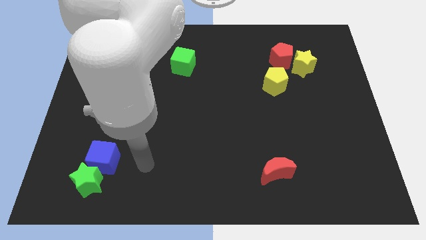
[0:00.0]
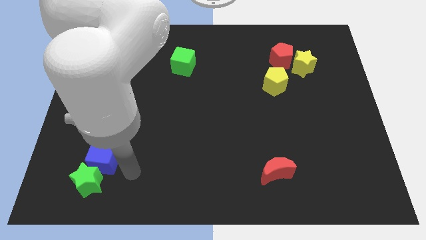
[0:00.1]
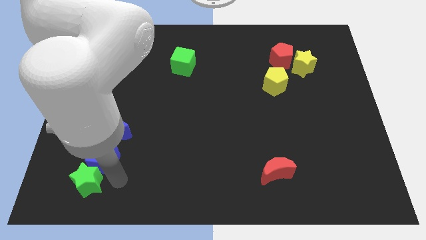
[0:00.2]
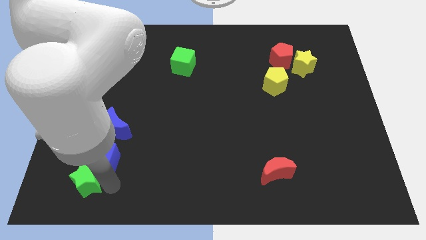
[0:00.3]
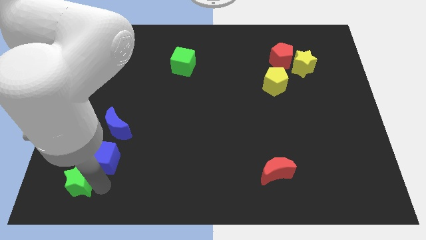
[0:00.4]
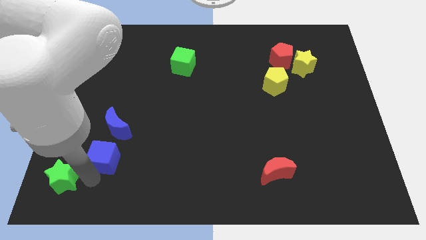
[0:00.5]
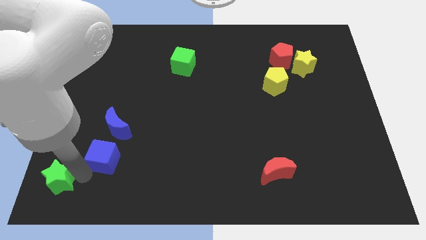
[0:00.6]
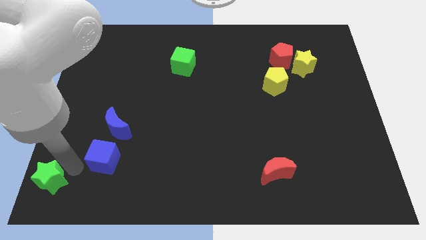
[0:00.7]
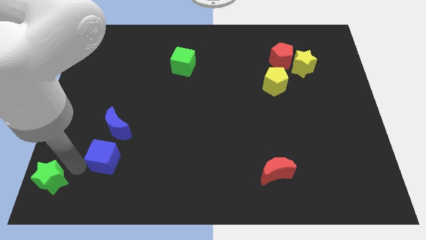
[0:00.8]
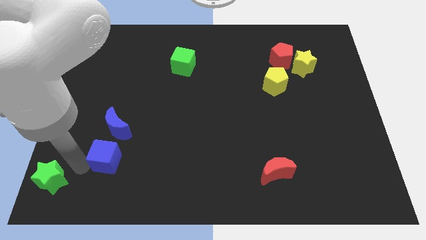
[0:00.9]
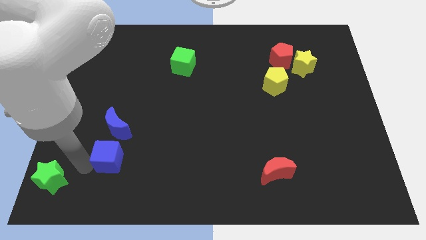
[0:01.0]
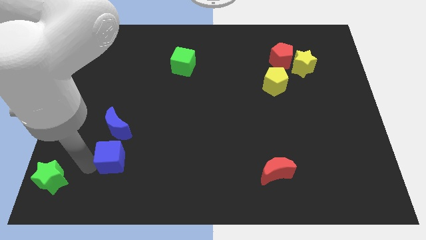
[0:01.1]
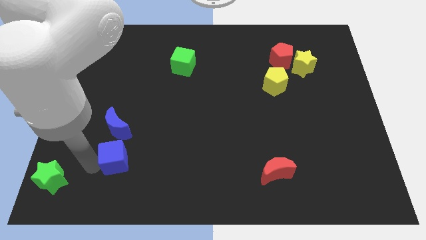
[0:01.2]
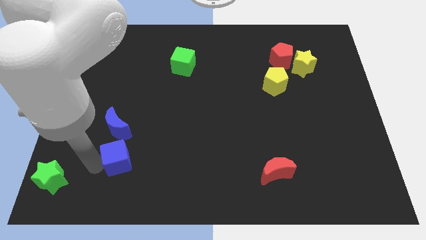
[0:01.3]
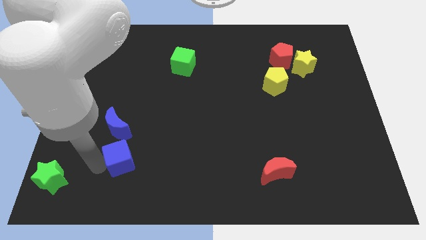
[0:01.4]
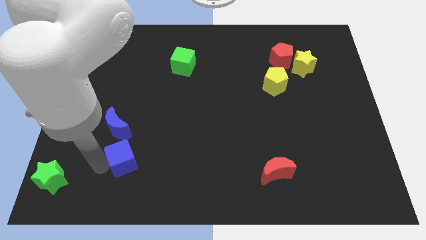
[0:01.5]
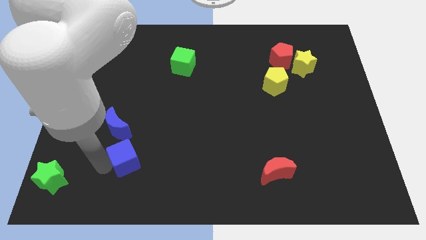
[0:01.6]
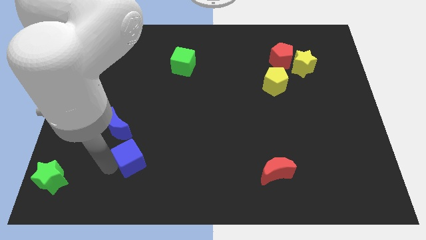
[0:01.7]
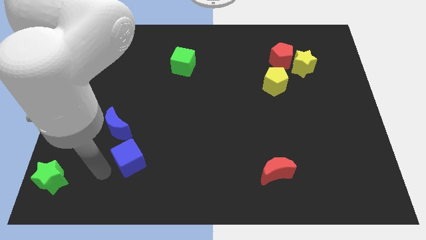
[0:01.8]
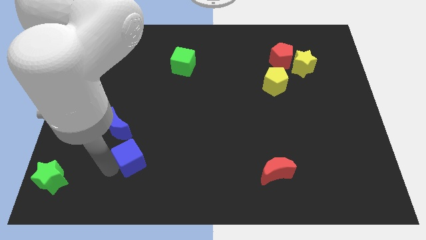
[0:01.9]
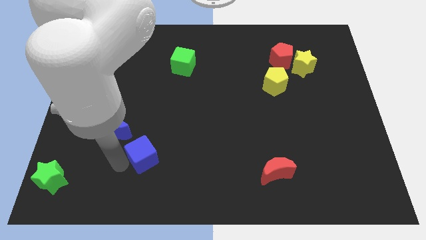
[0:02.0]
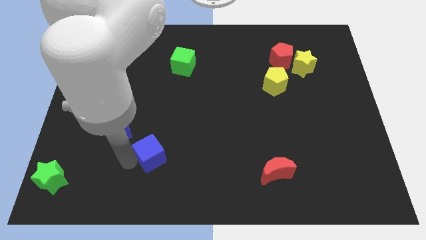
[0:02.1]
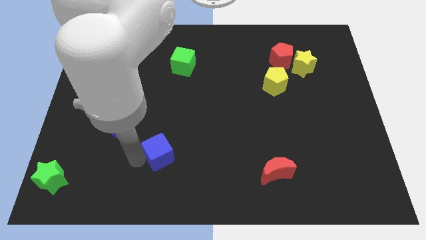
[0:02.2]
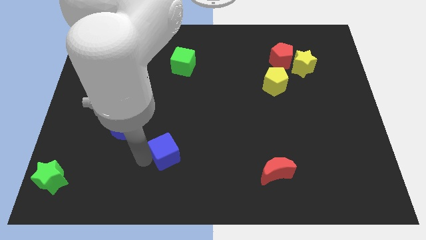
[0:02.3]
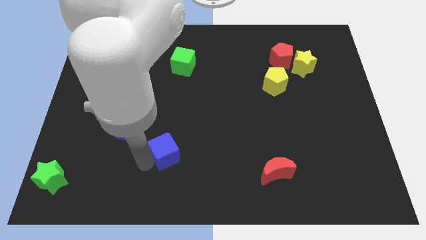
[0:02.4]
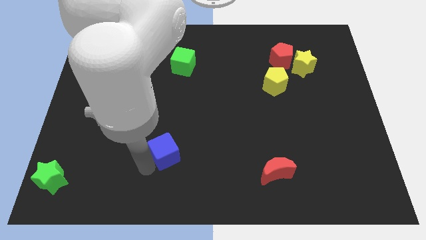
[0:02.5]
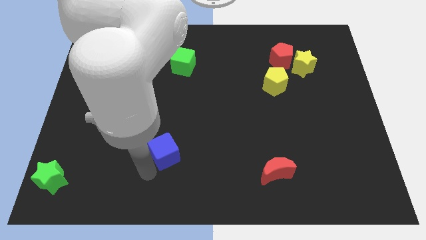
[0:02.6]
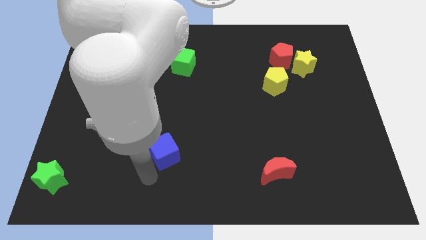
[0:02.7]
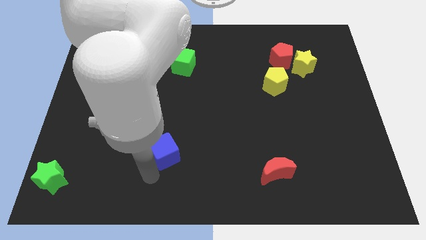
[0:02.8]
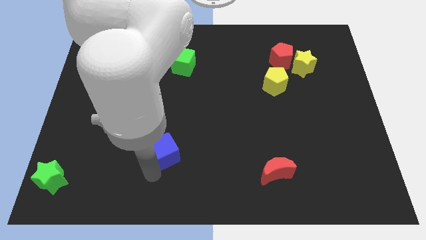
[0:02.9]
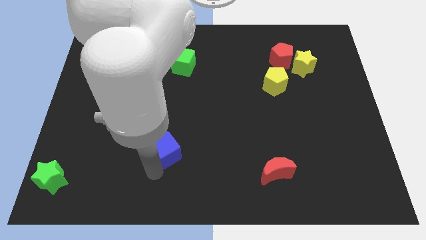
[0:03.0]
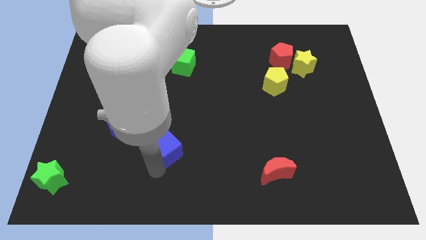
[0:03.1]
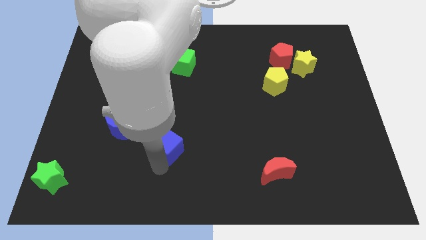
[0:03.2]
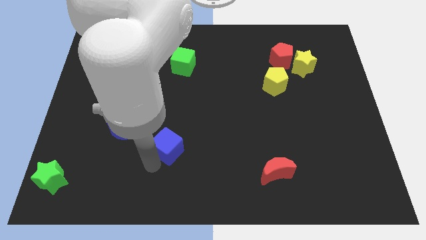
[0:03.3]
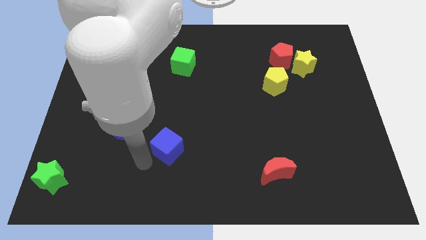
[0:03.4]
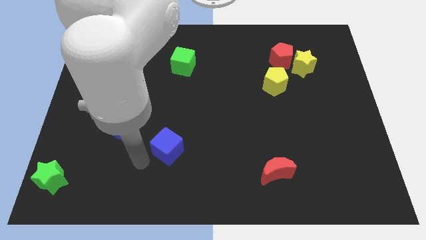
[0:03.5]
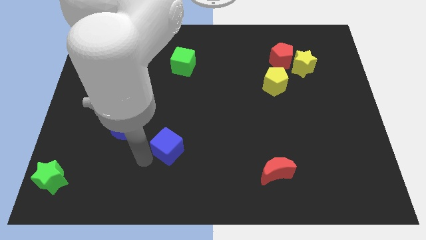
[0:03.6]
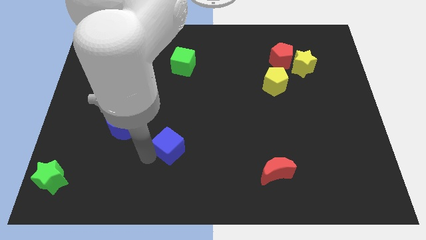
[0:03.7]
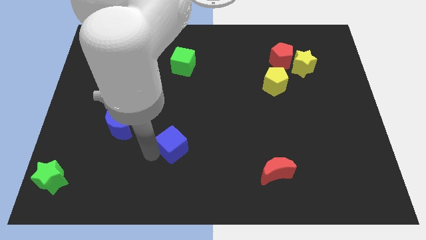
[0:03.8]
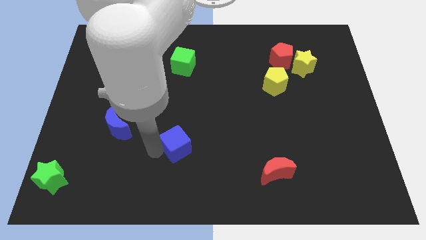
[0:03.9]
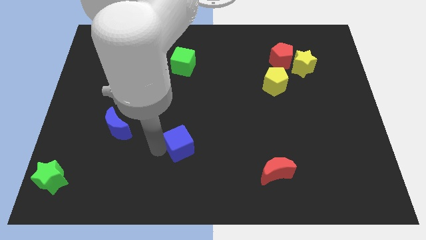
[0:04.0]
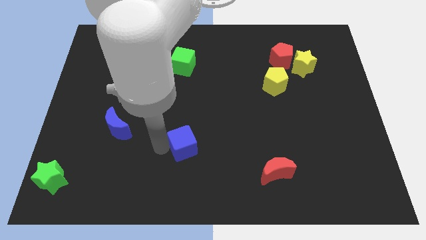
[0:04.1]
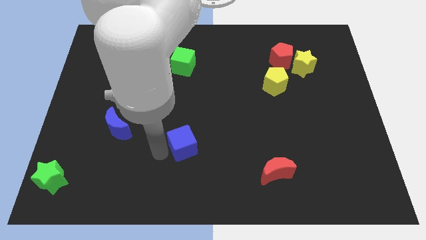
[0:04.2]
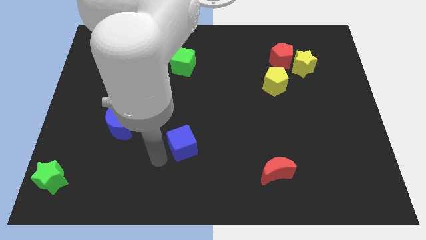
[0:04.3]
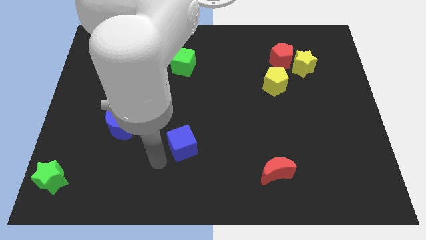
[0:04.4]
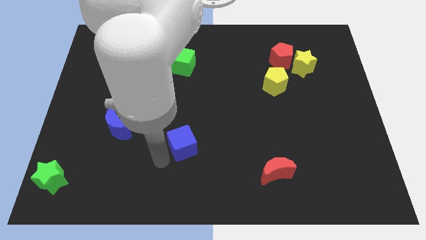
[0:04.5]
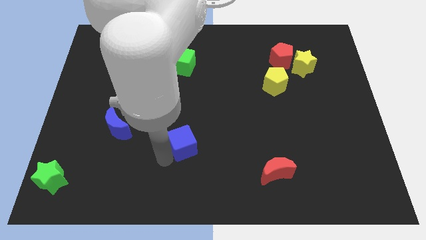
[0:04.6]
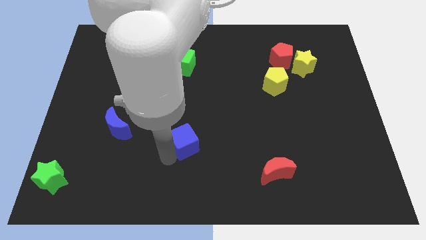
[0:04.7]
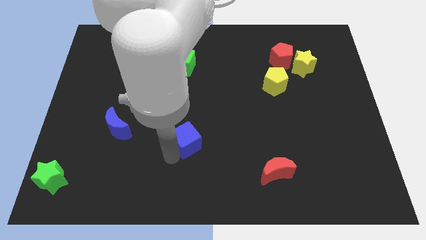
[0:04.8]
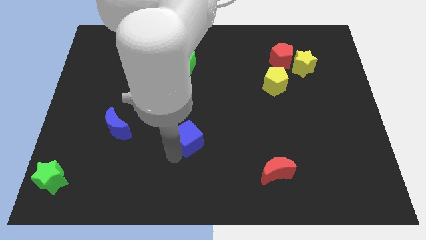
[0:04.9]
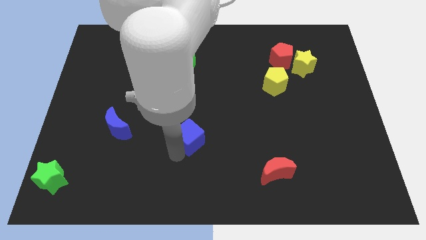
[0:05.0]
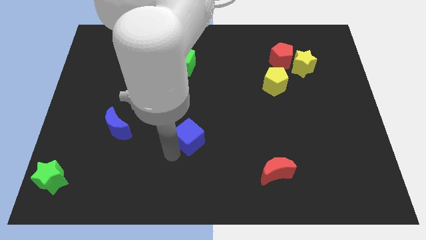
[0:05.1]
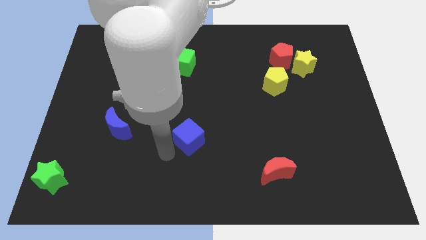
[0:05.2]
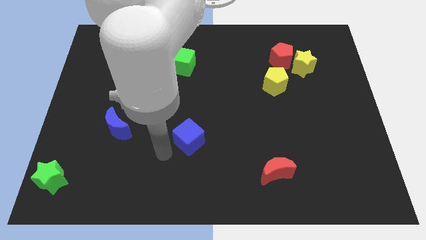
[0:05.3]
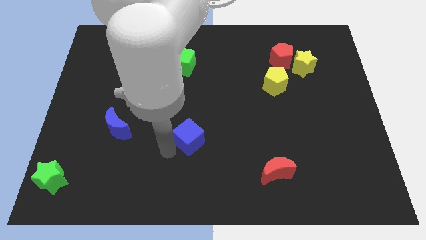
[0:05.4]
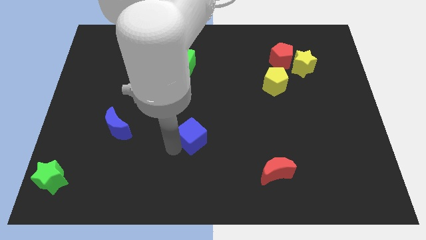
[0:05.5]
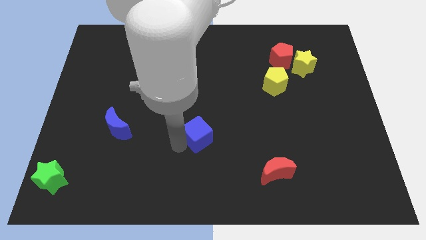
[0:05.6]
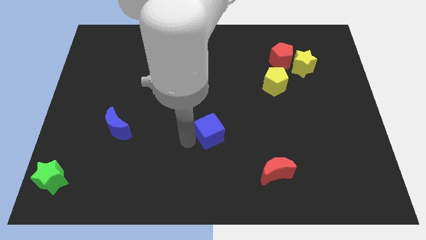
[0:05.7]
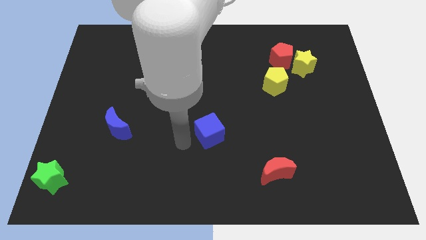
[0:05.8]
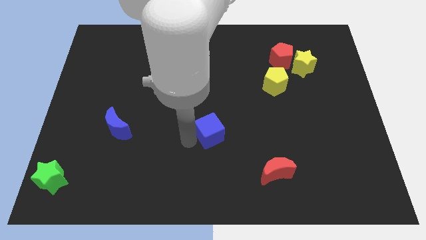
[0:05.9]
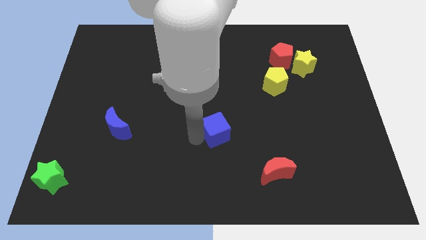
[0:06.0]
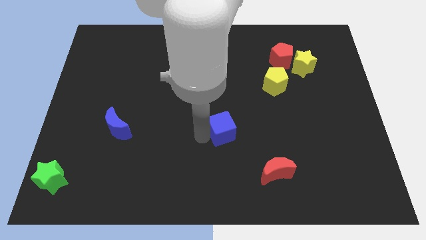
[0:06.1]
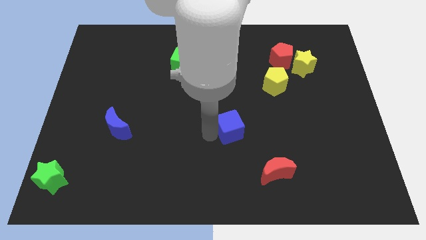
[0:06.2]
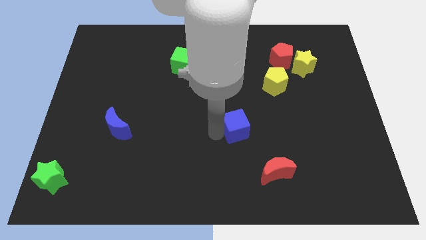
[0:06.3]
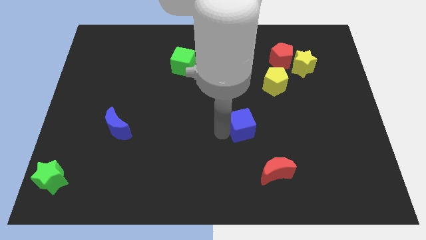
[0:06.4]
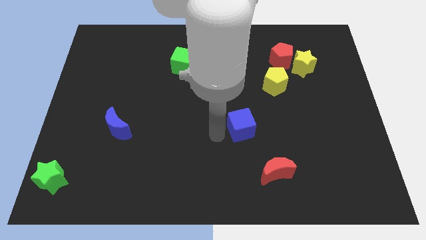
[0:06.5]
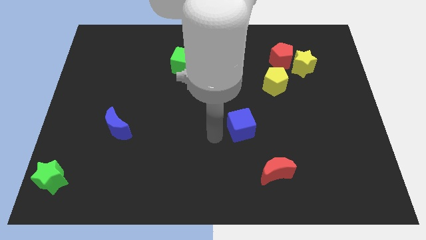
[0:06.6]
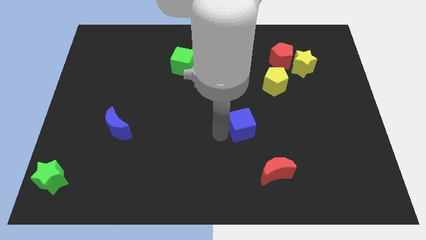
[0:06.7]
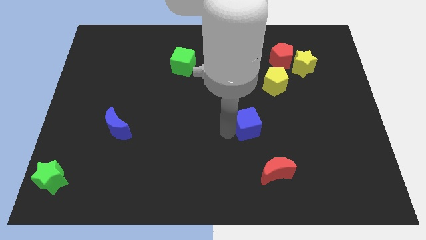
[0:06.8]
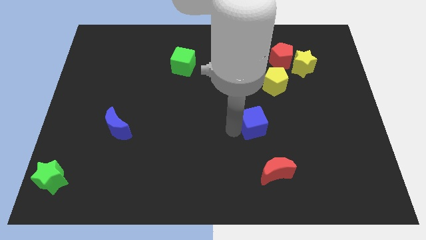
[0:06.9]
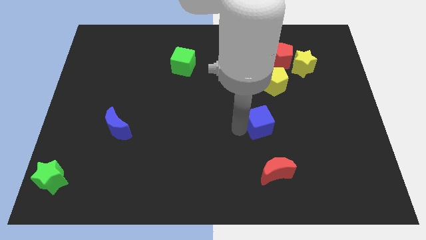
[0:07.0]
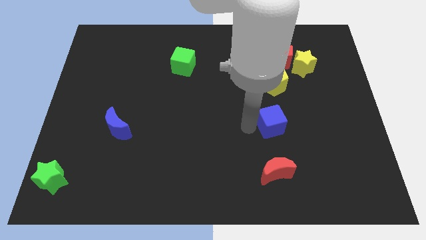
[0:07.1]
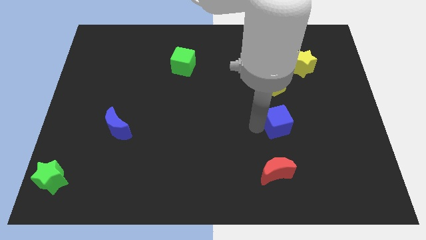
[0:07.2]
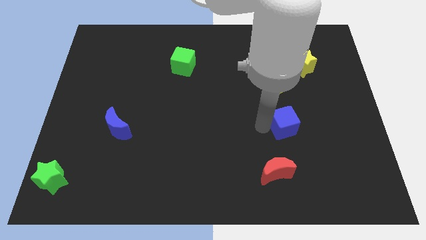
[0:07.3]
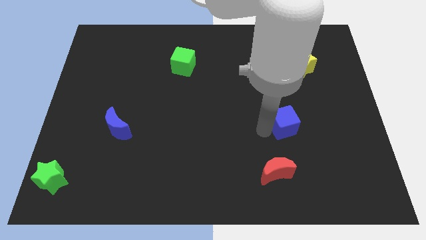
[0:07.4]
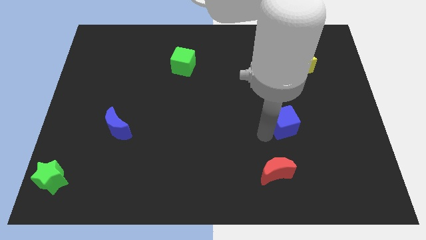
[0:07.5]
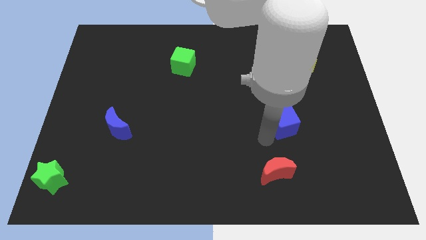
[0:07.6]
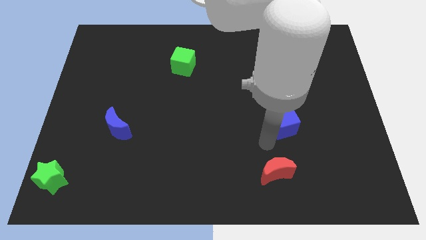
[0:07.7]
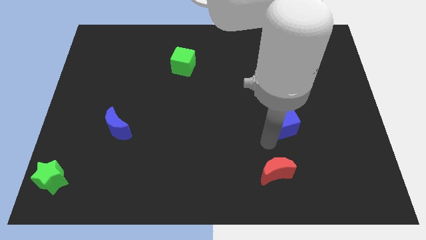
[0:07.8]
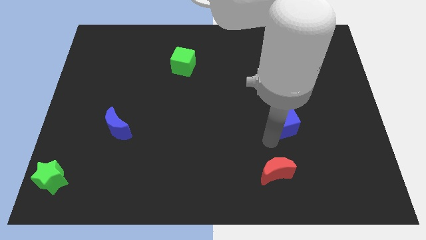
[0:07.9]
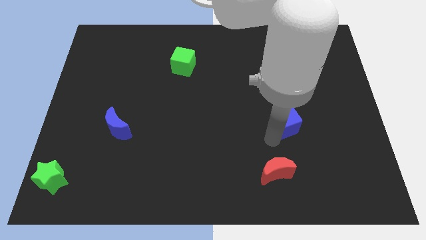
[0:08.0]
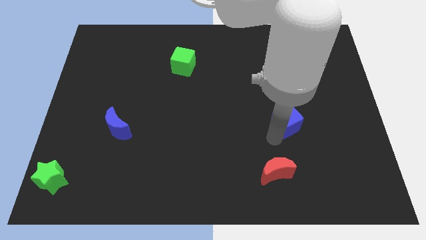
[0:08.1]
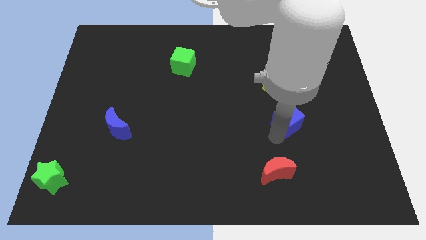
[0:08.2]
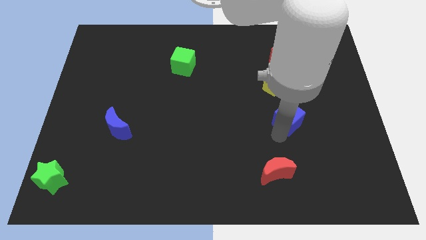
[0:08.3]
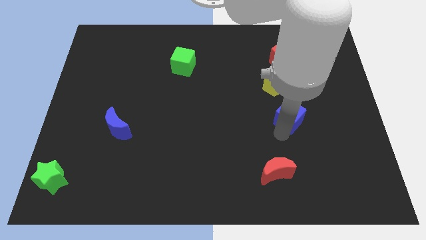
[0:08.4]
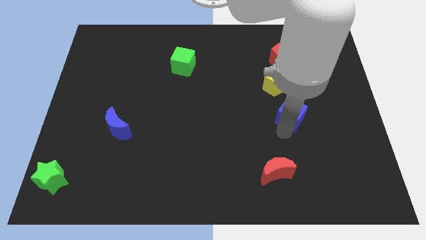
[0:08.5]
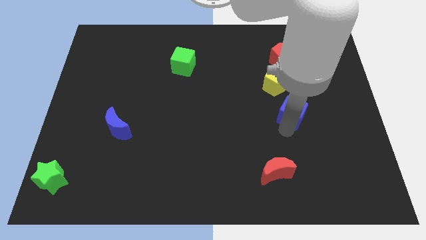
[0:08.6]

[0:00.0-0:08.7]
put the blue cube diagonally down and to the right of the yellow pentagon
